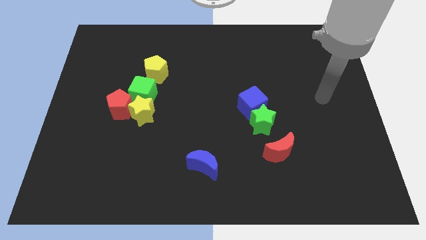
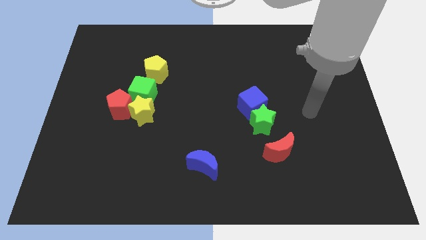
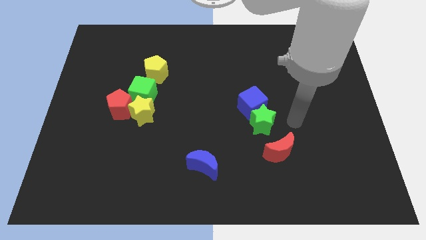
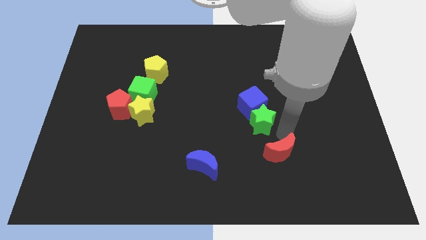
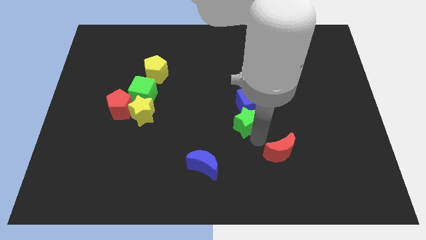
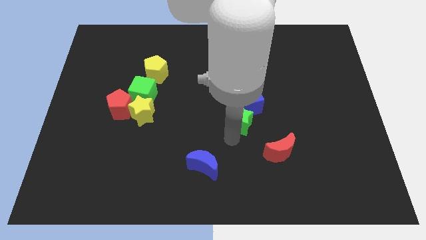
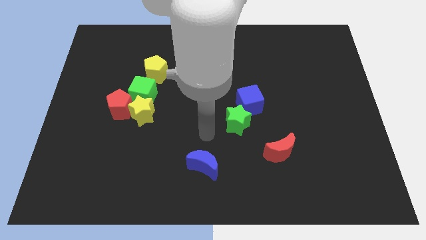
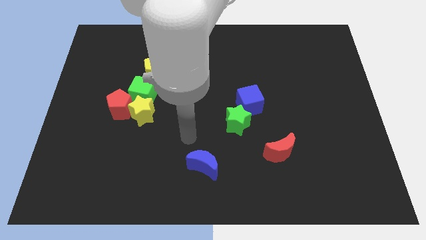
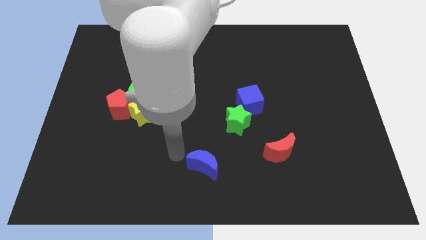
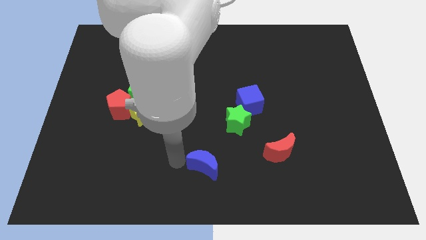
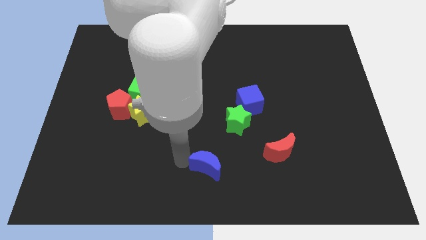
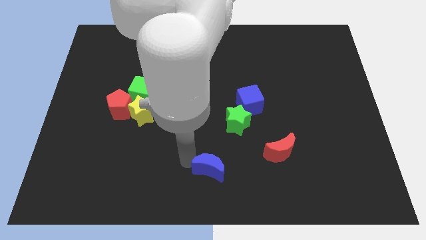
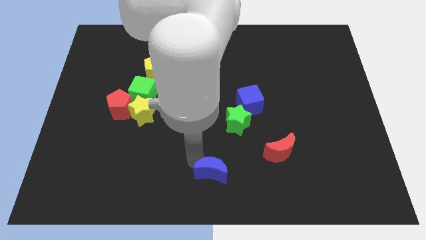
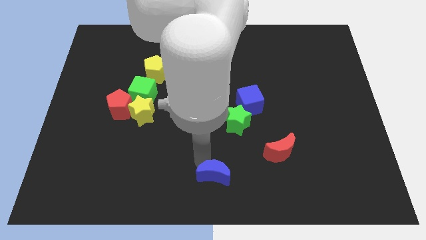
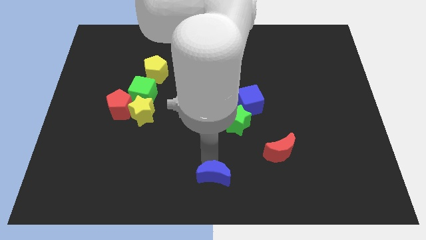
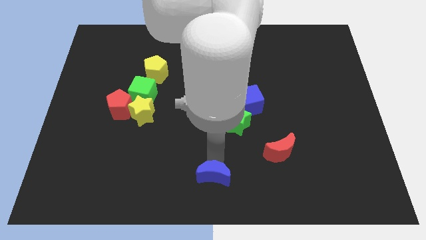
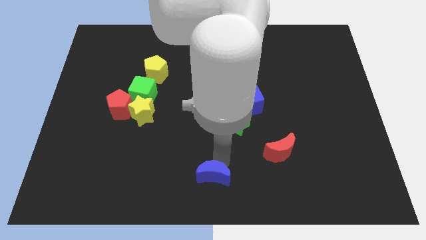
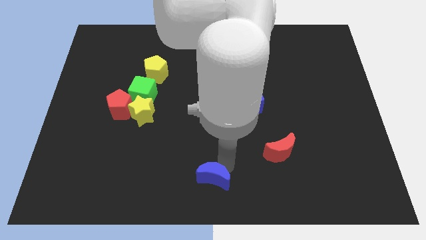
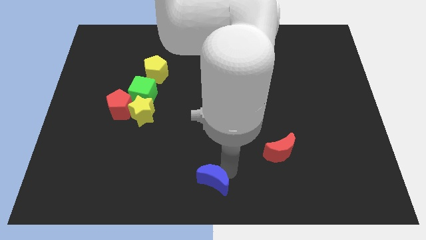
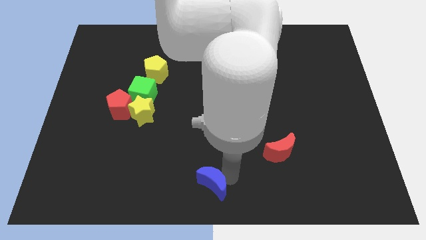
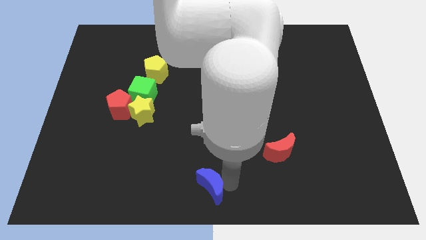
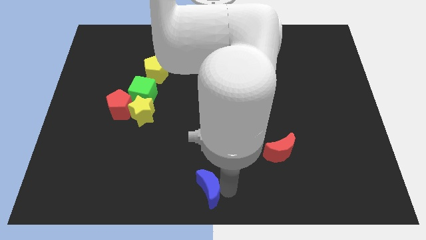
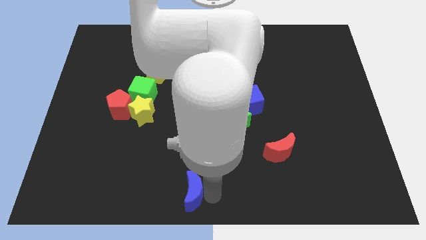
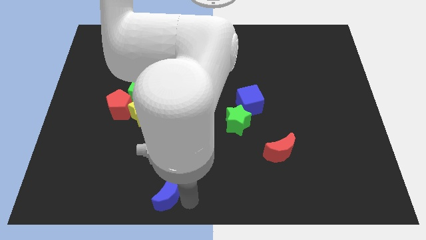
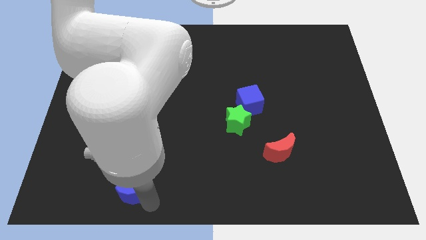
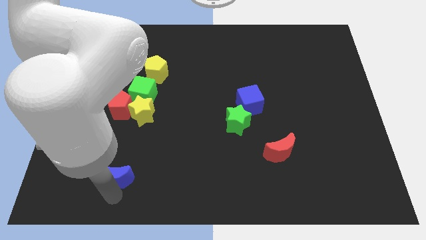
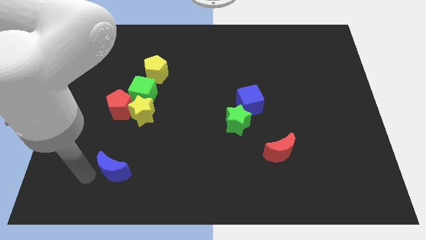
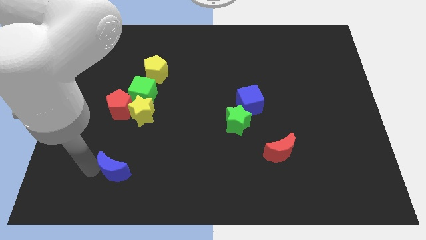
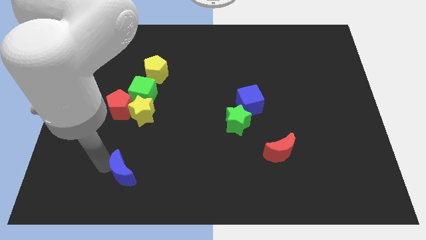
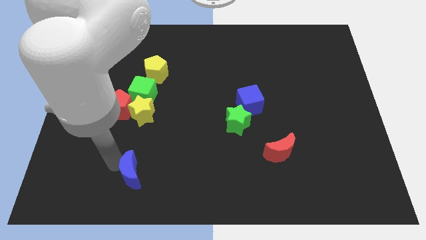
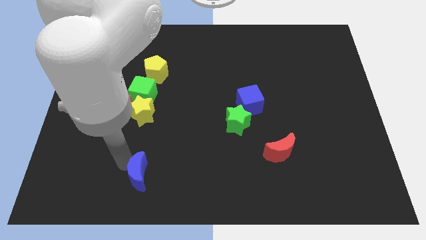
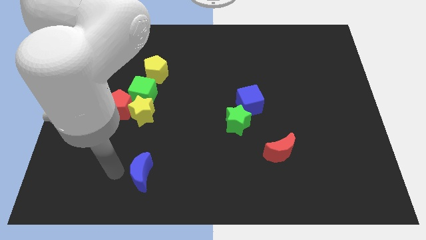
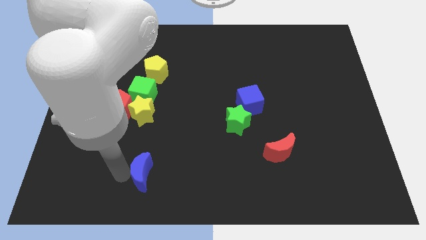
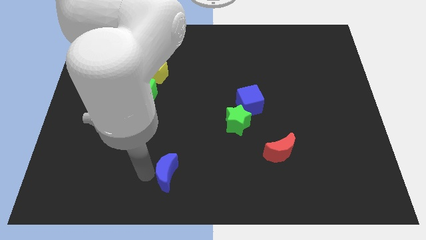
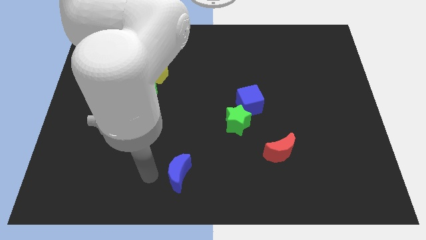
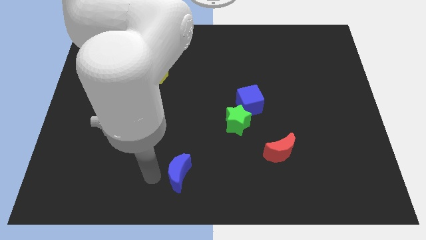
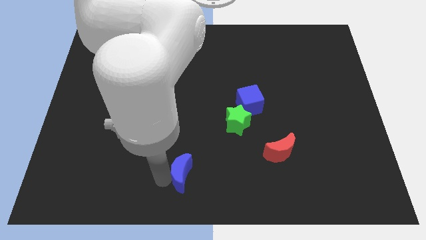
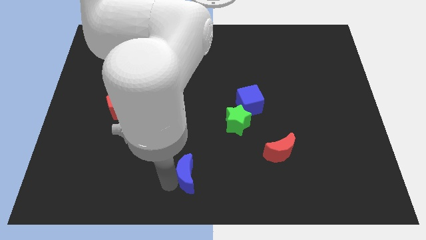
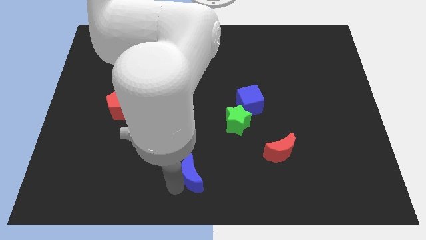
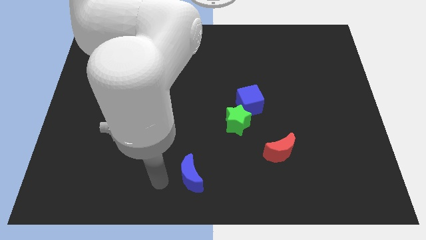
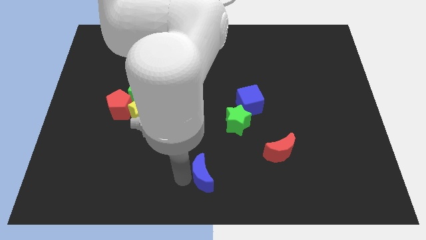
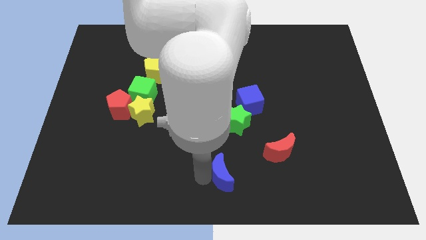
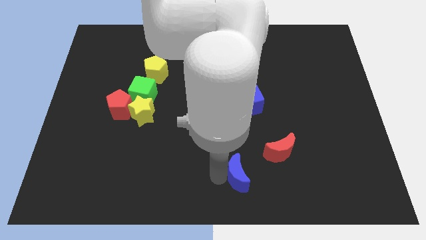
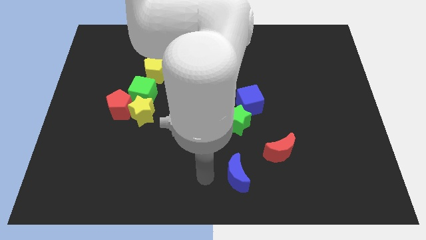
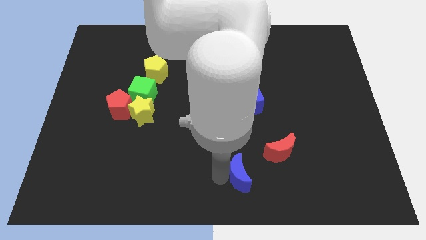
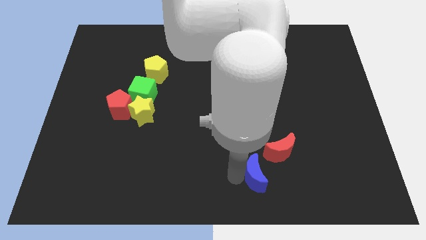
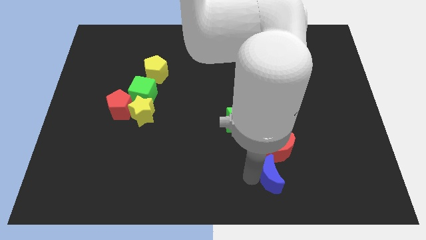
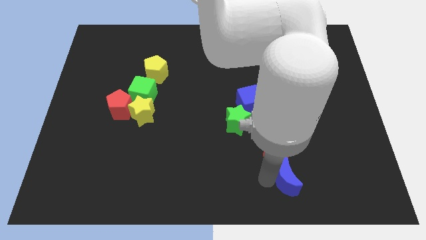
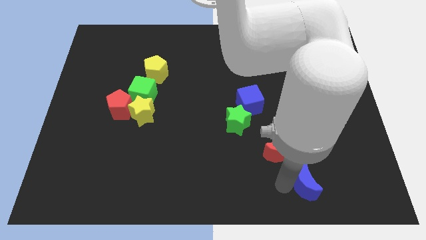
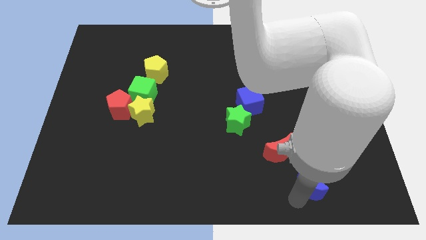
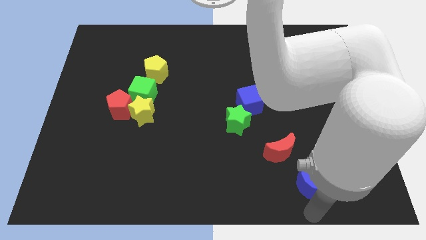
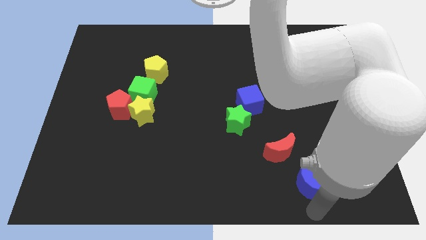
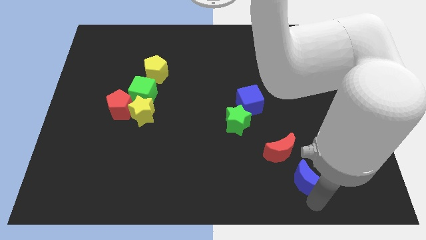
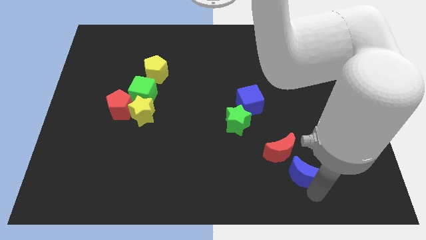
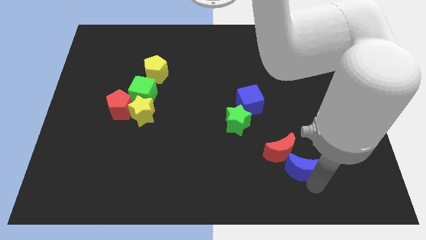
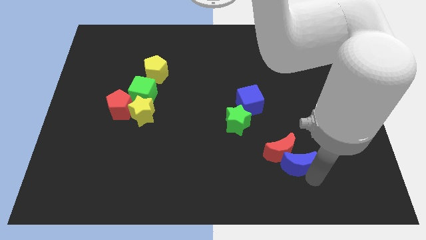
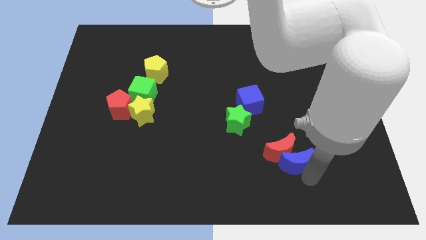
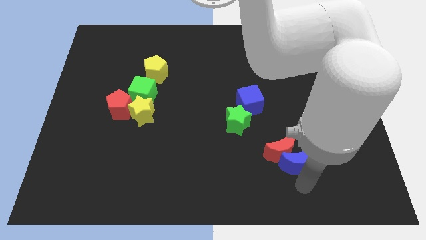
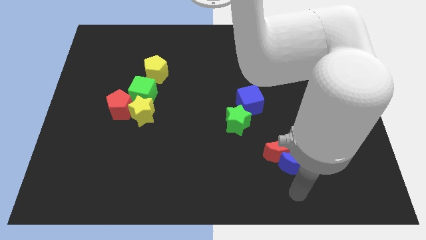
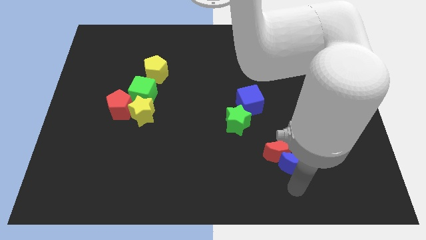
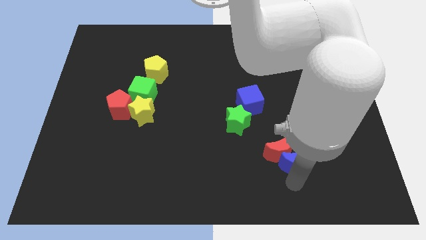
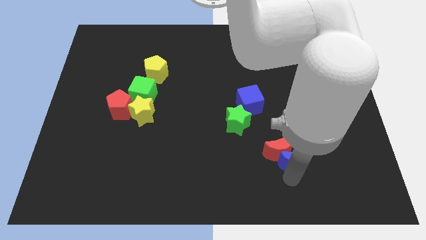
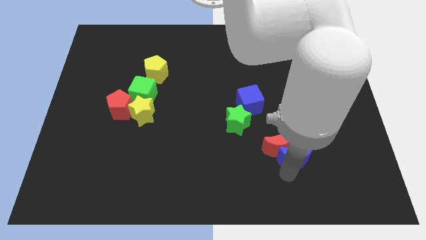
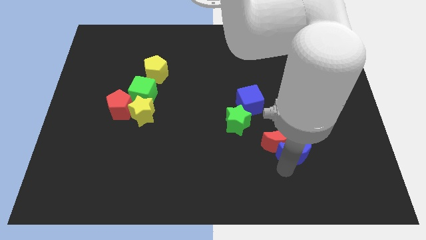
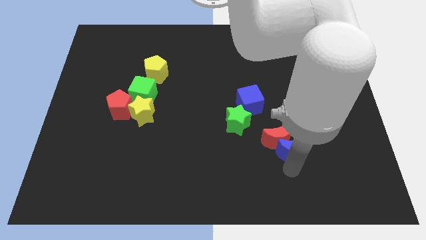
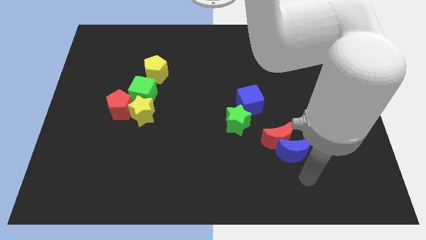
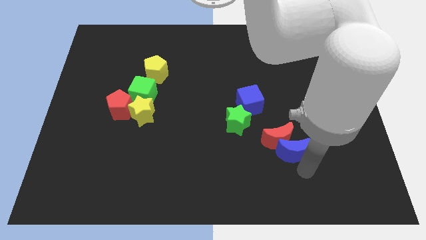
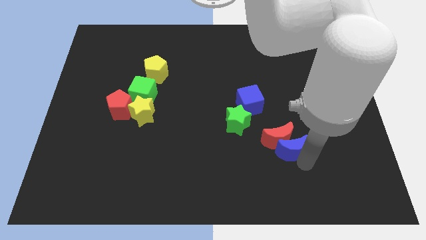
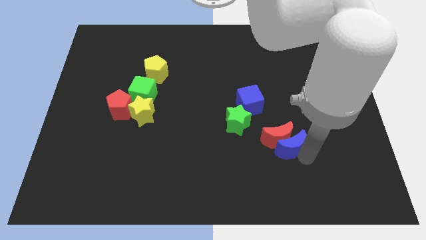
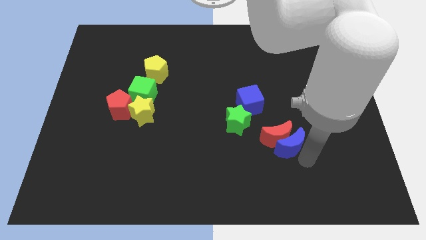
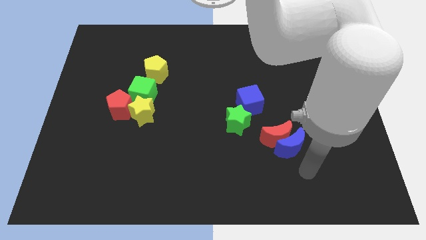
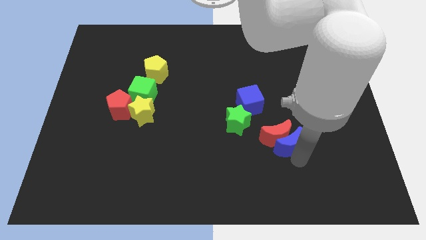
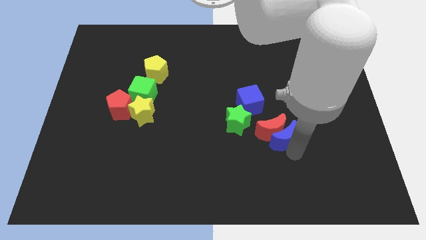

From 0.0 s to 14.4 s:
slide the blue moon to the bottom right of the blue cube
